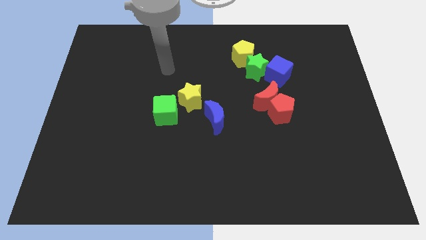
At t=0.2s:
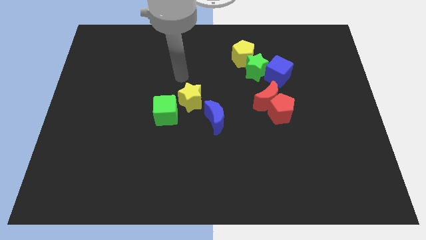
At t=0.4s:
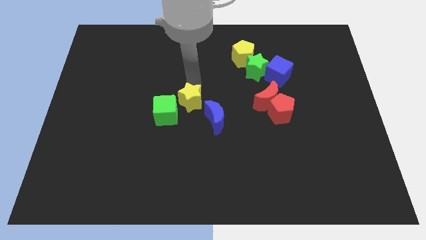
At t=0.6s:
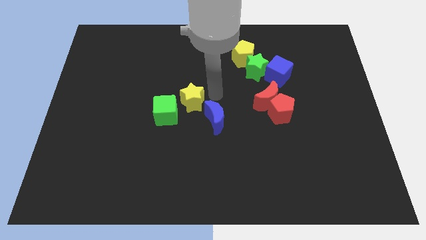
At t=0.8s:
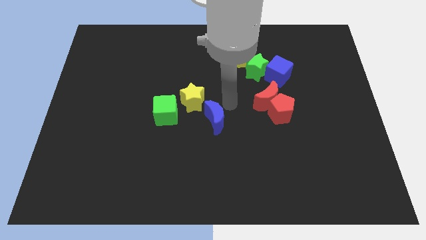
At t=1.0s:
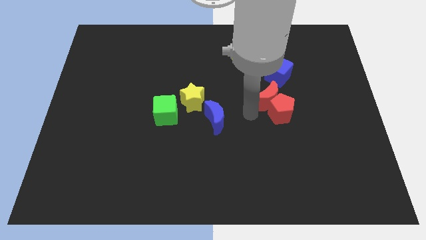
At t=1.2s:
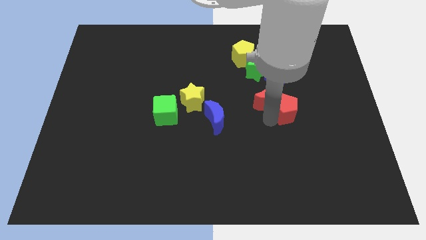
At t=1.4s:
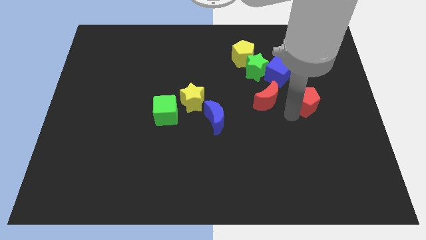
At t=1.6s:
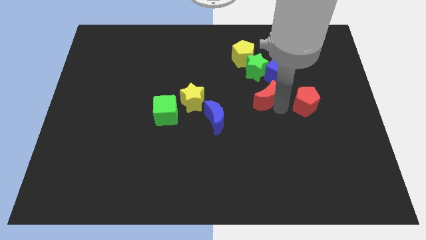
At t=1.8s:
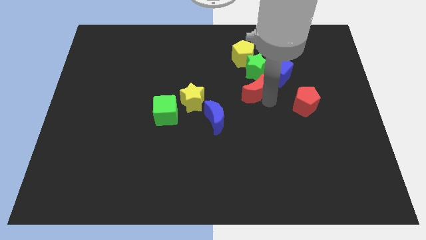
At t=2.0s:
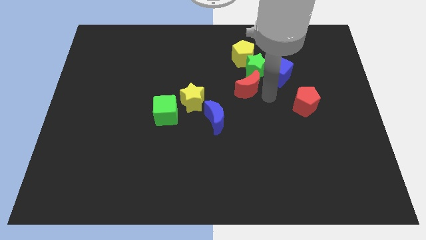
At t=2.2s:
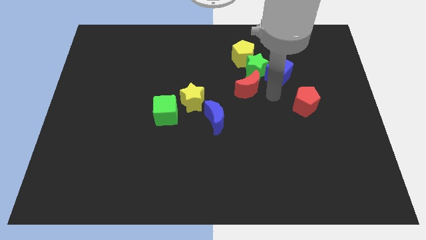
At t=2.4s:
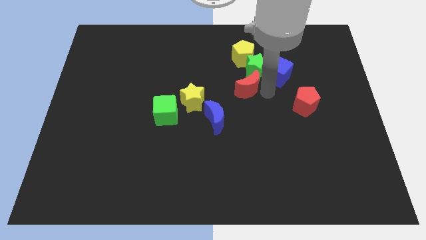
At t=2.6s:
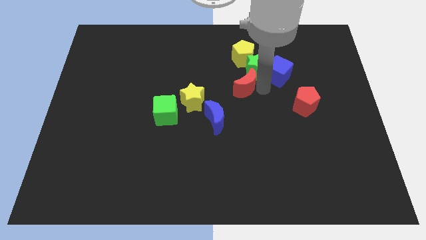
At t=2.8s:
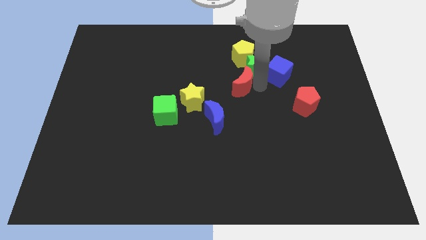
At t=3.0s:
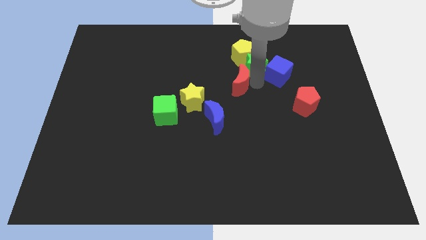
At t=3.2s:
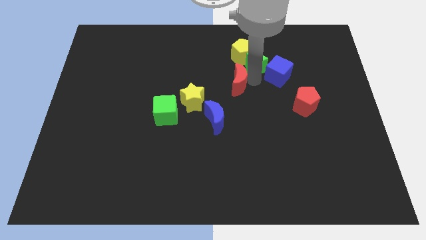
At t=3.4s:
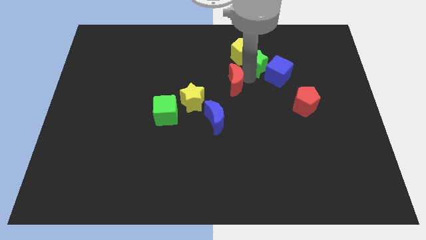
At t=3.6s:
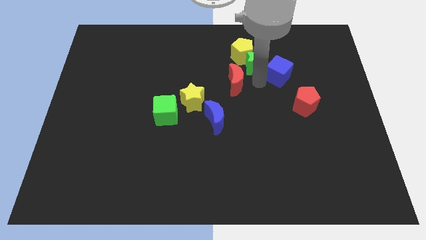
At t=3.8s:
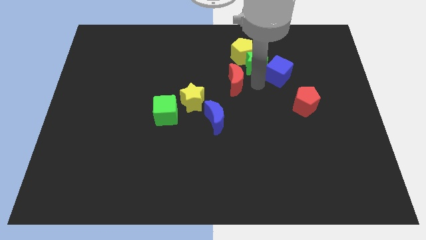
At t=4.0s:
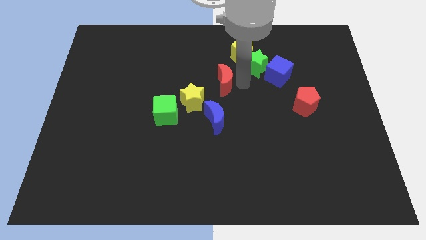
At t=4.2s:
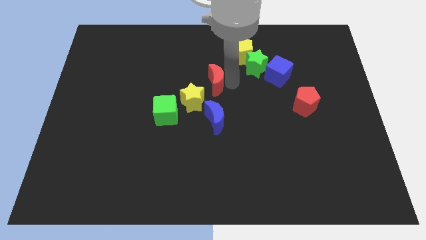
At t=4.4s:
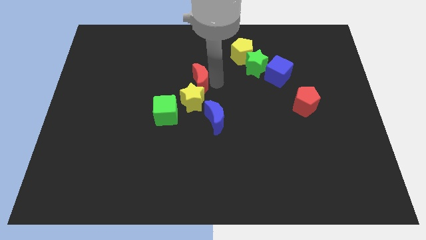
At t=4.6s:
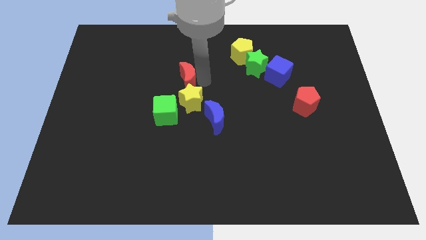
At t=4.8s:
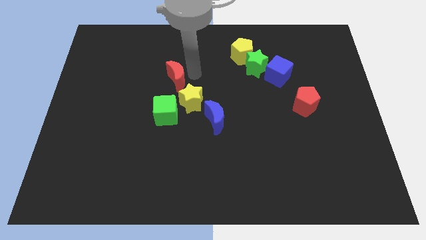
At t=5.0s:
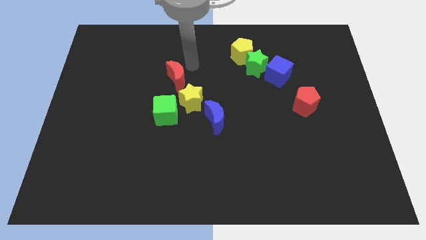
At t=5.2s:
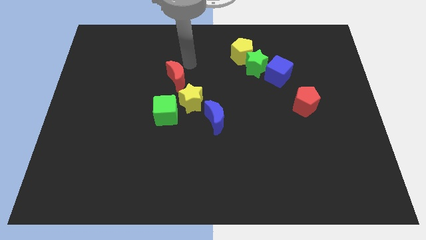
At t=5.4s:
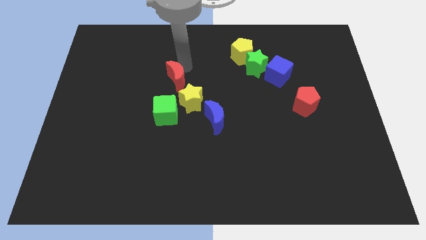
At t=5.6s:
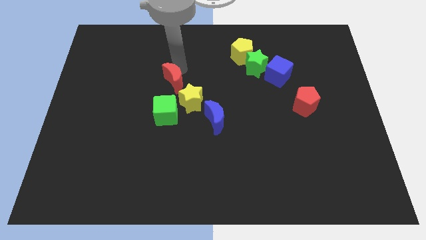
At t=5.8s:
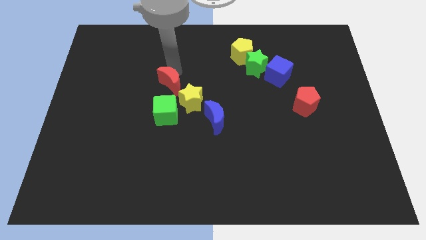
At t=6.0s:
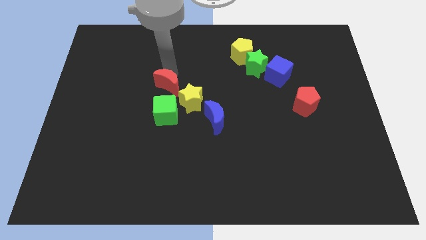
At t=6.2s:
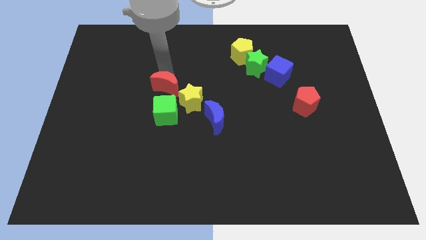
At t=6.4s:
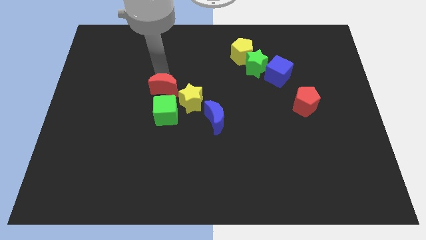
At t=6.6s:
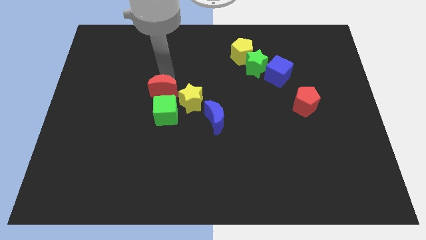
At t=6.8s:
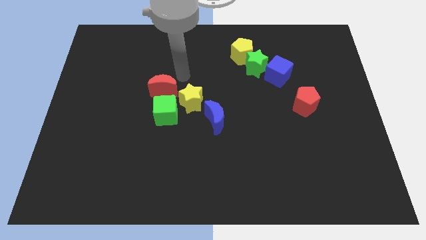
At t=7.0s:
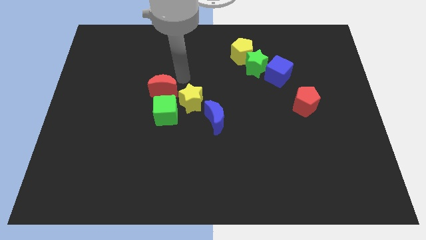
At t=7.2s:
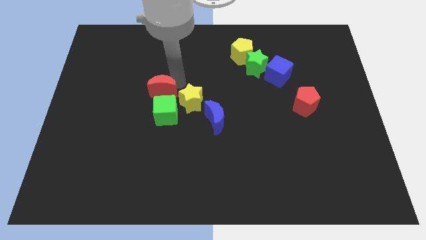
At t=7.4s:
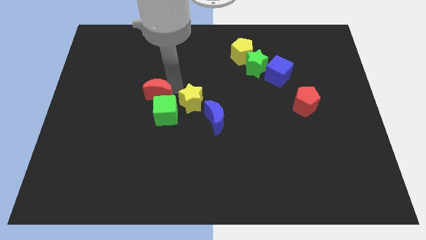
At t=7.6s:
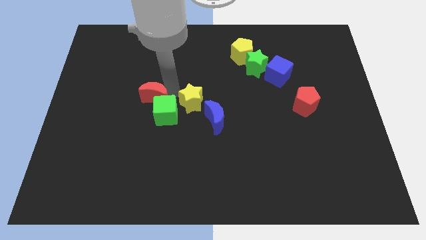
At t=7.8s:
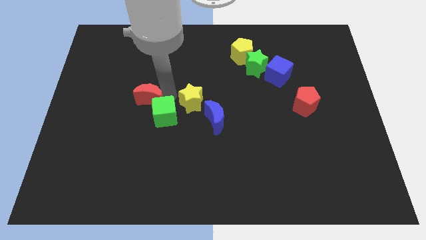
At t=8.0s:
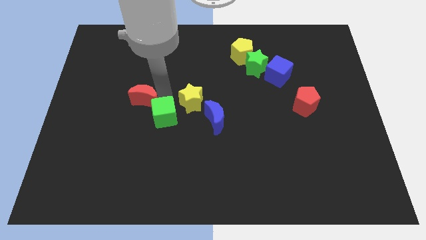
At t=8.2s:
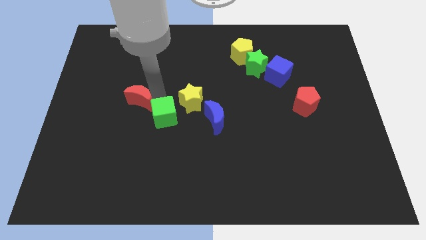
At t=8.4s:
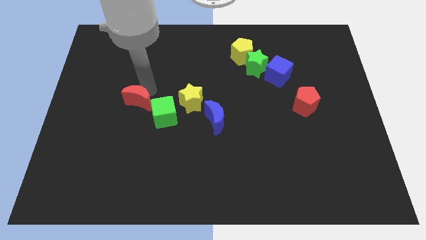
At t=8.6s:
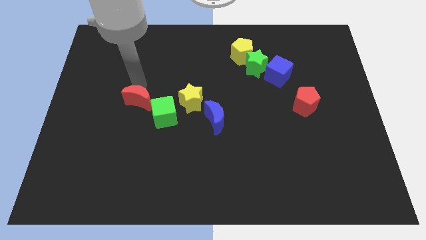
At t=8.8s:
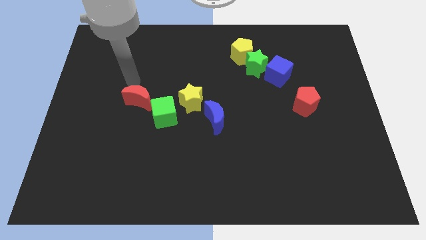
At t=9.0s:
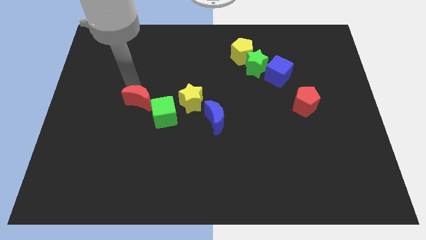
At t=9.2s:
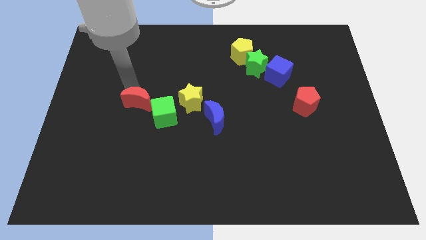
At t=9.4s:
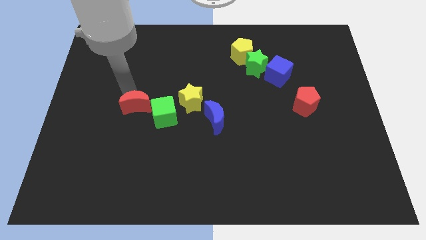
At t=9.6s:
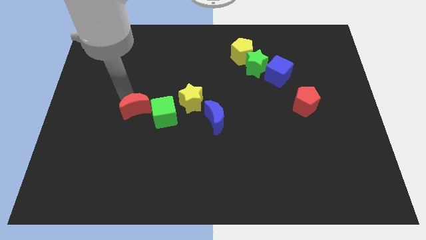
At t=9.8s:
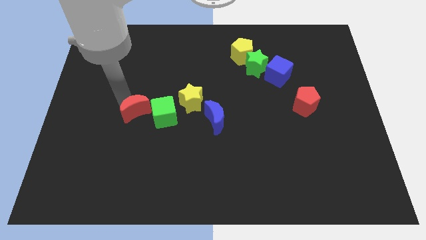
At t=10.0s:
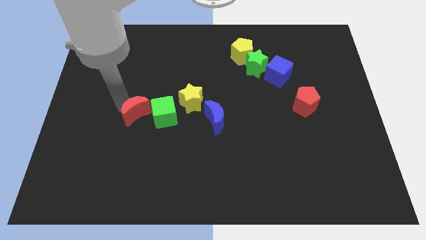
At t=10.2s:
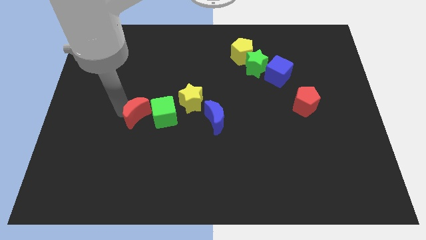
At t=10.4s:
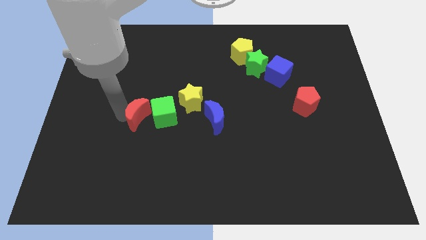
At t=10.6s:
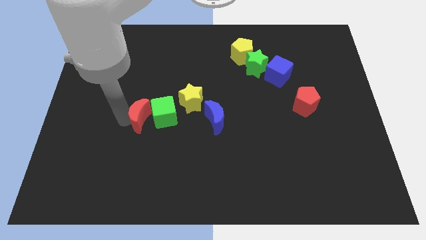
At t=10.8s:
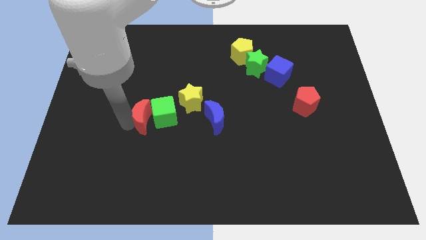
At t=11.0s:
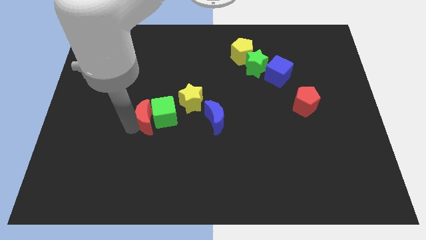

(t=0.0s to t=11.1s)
put the red moon to the left of the blue moon

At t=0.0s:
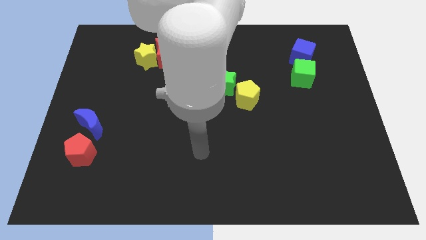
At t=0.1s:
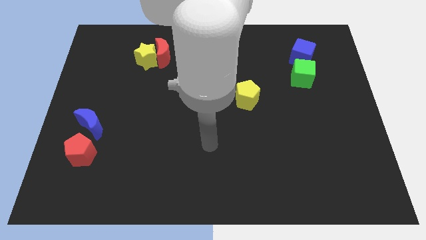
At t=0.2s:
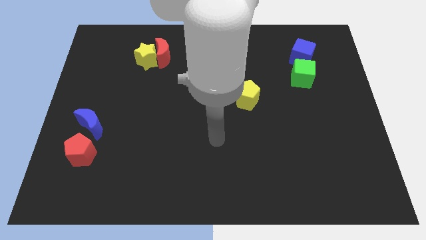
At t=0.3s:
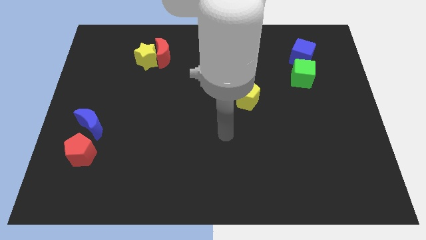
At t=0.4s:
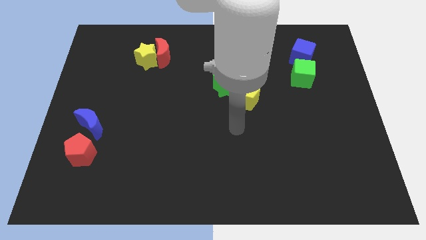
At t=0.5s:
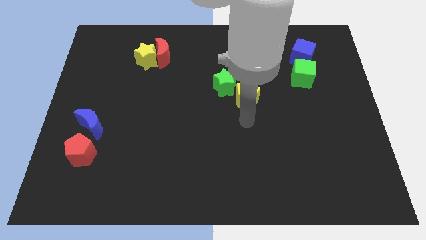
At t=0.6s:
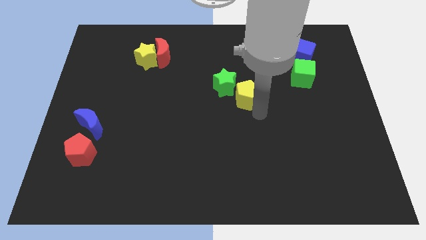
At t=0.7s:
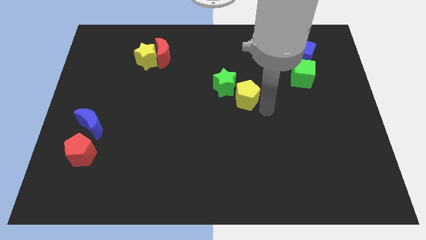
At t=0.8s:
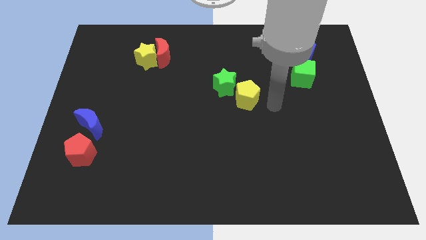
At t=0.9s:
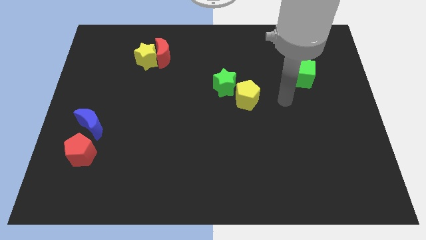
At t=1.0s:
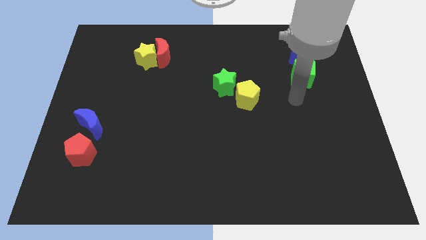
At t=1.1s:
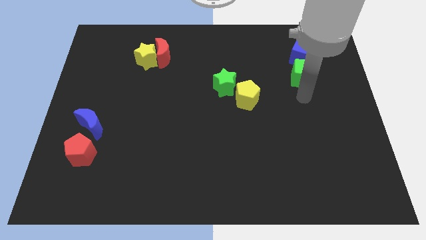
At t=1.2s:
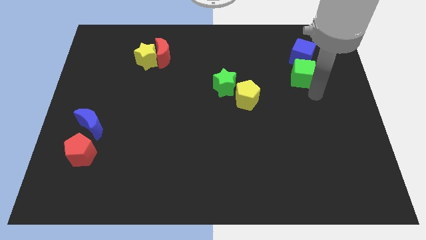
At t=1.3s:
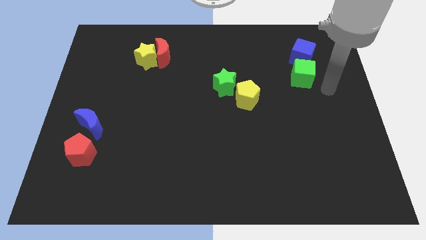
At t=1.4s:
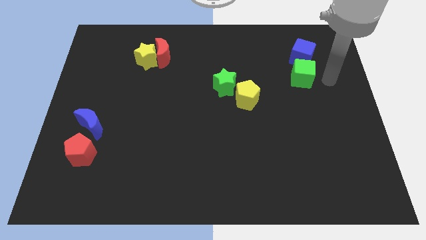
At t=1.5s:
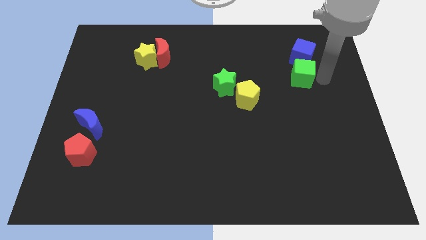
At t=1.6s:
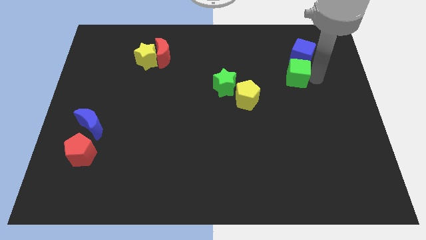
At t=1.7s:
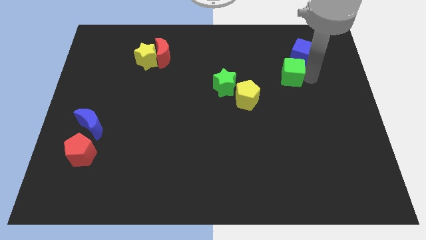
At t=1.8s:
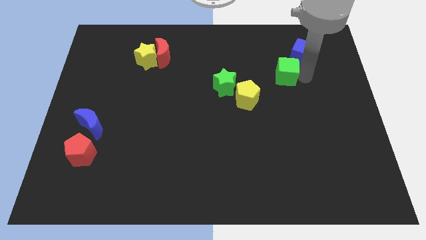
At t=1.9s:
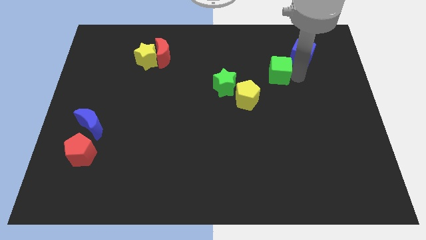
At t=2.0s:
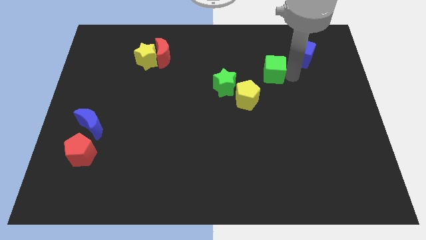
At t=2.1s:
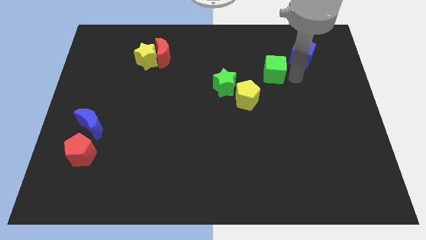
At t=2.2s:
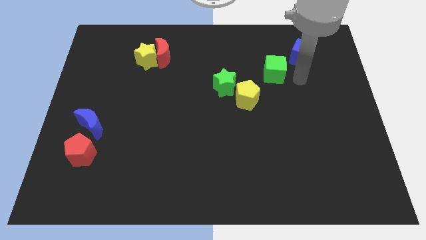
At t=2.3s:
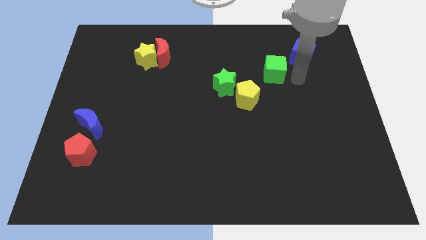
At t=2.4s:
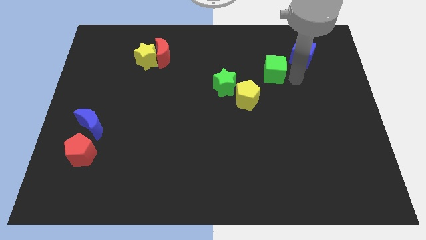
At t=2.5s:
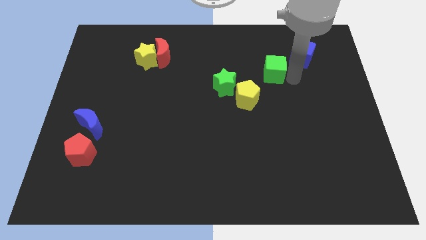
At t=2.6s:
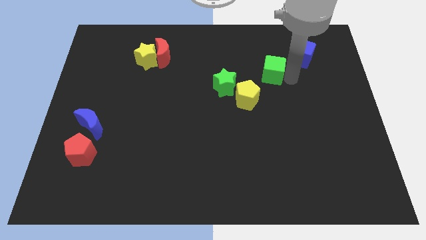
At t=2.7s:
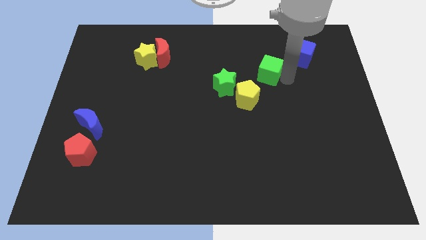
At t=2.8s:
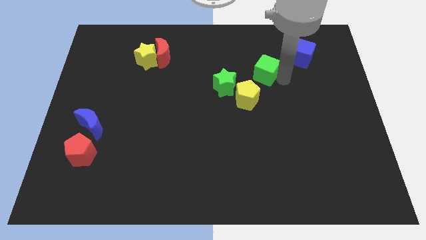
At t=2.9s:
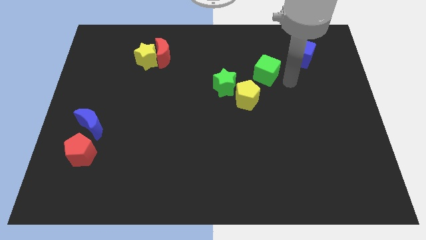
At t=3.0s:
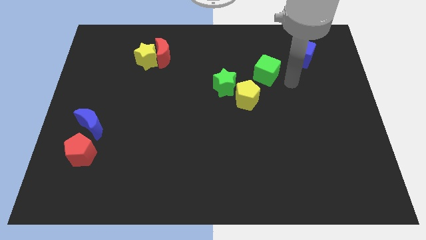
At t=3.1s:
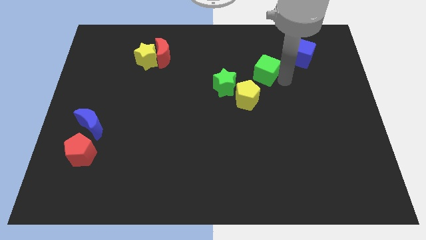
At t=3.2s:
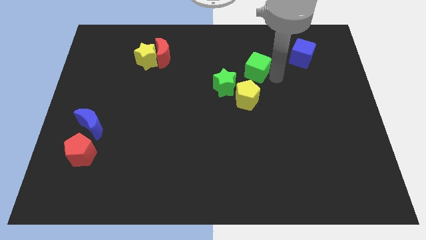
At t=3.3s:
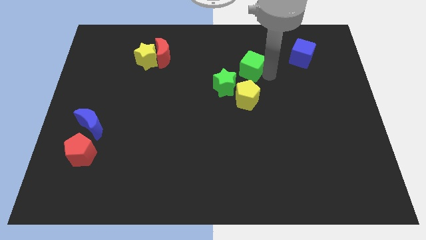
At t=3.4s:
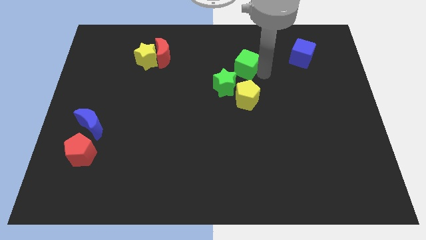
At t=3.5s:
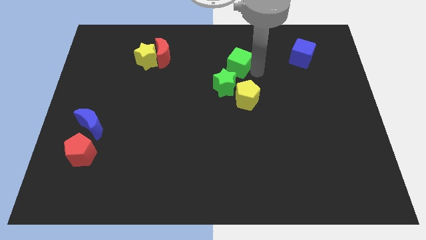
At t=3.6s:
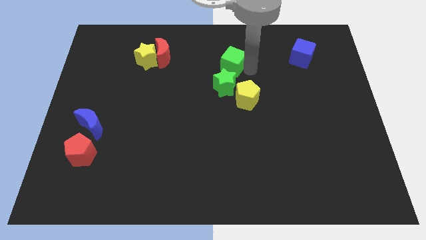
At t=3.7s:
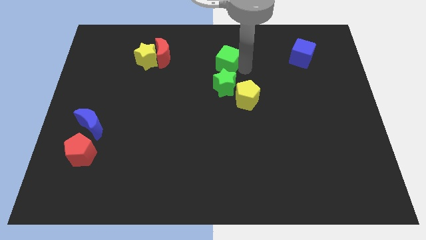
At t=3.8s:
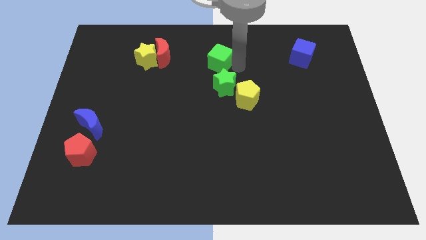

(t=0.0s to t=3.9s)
push the green cube to the right side of the red moon
